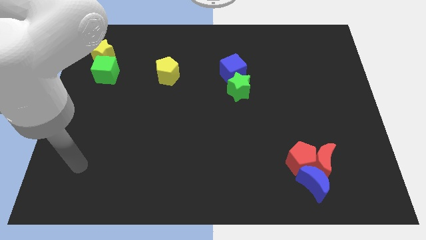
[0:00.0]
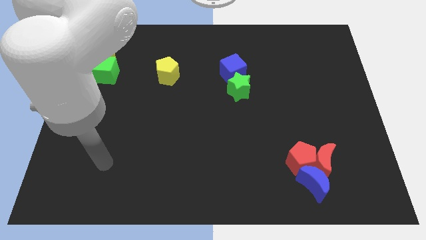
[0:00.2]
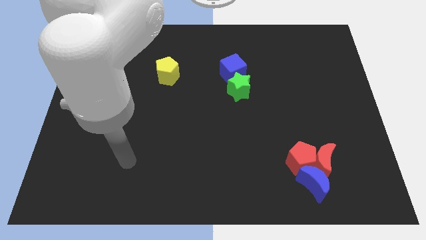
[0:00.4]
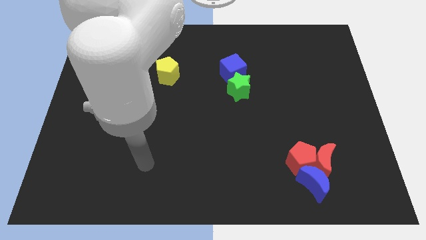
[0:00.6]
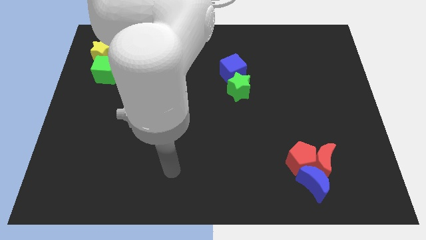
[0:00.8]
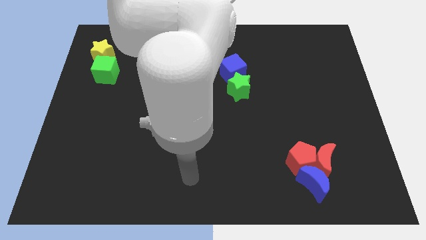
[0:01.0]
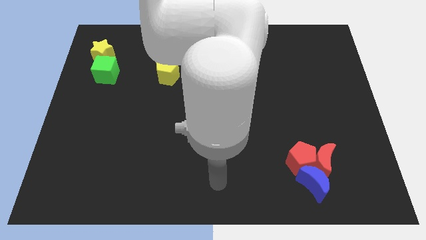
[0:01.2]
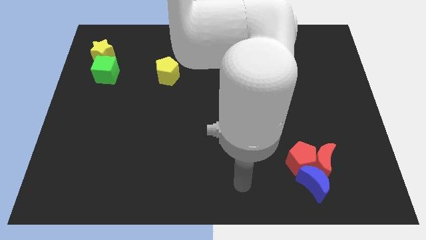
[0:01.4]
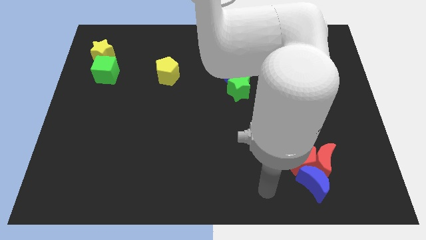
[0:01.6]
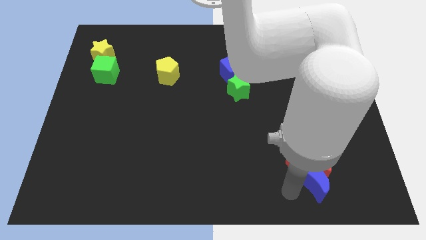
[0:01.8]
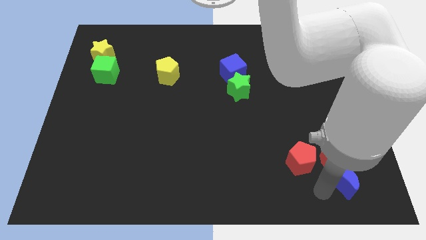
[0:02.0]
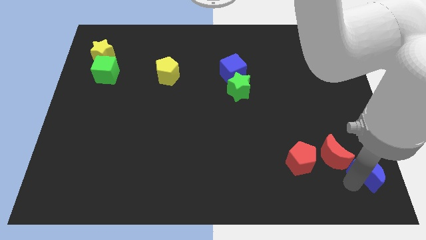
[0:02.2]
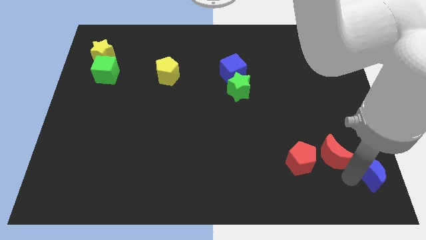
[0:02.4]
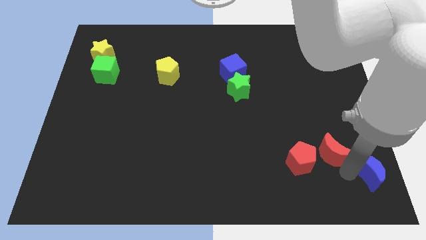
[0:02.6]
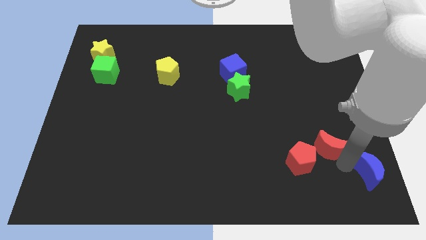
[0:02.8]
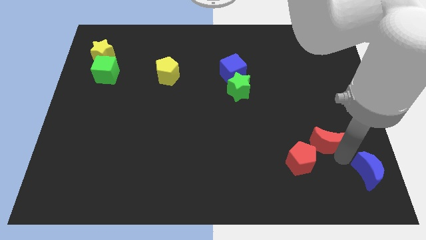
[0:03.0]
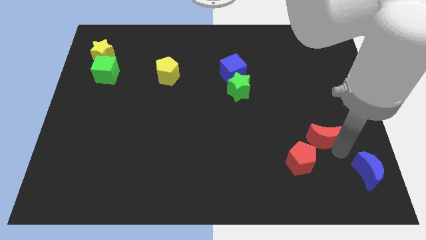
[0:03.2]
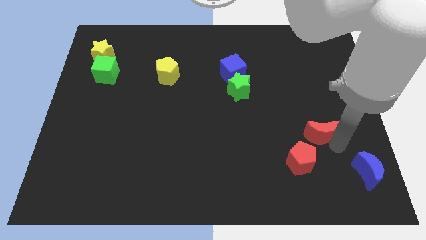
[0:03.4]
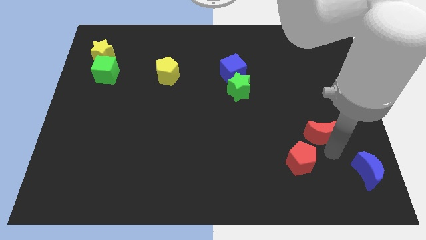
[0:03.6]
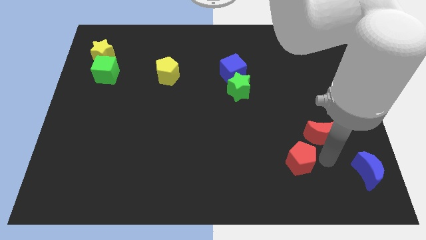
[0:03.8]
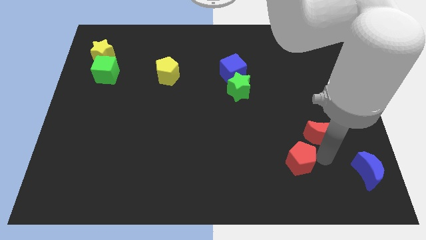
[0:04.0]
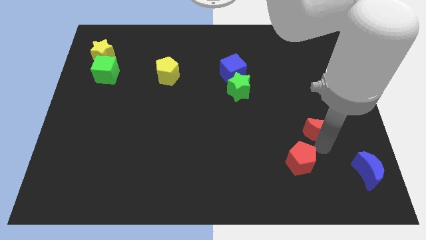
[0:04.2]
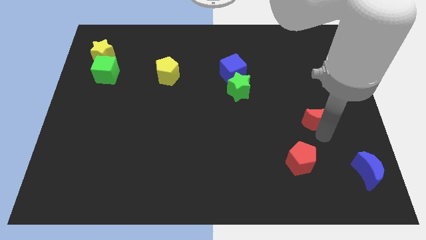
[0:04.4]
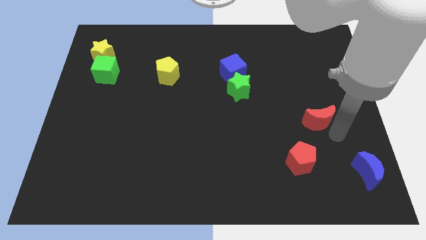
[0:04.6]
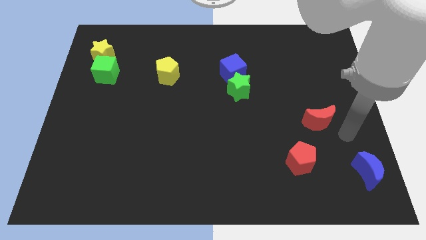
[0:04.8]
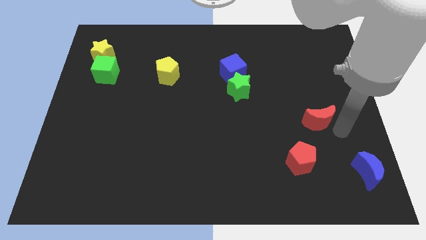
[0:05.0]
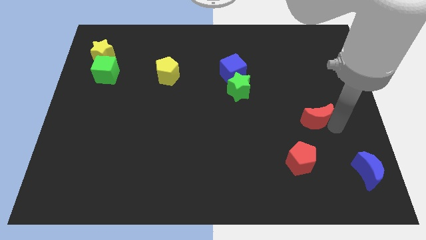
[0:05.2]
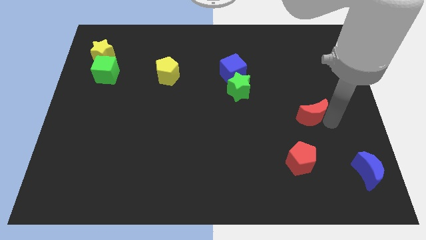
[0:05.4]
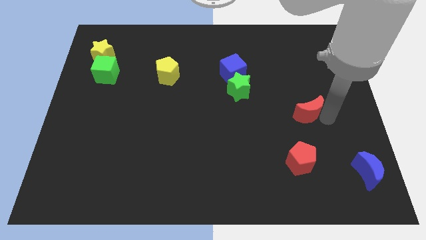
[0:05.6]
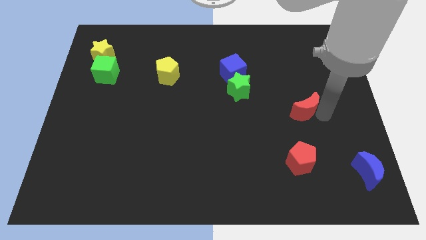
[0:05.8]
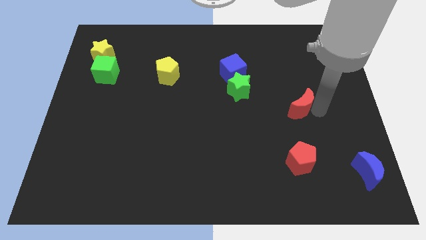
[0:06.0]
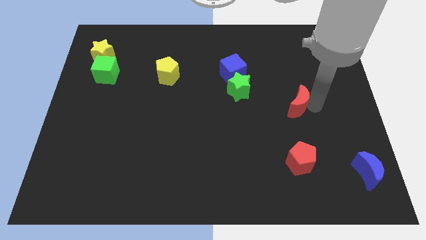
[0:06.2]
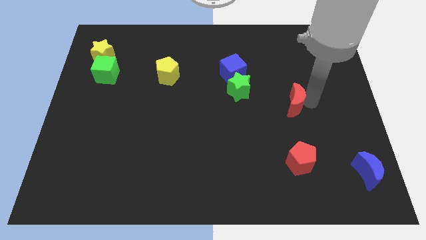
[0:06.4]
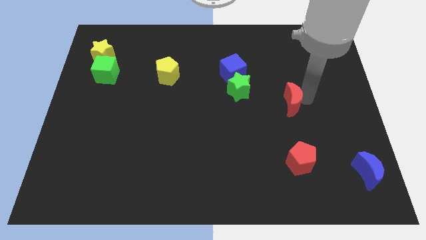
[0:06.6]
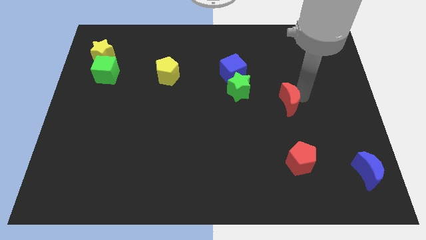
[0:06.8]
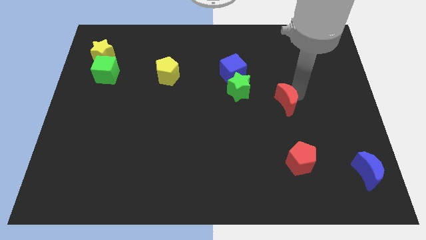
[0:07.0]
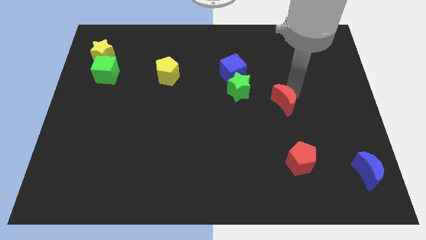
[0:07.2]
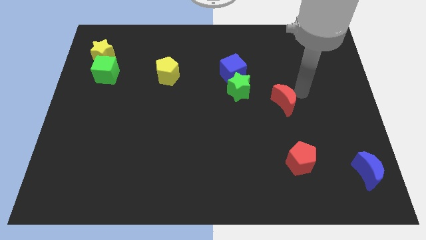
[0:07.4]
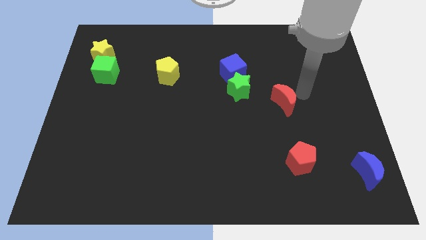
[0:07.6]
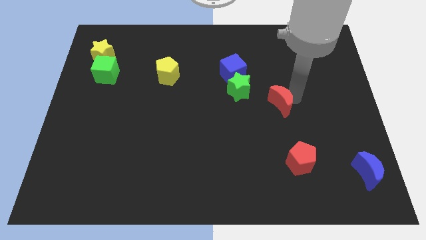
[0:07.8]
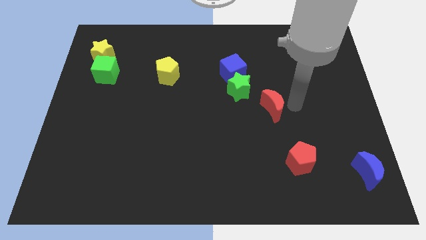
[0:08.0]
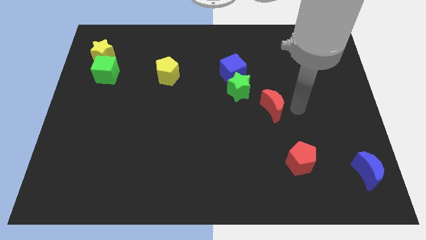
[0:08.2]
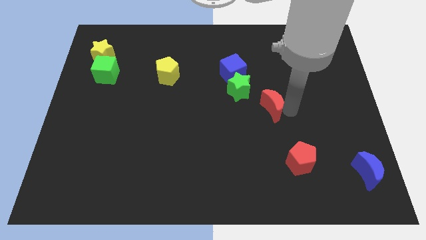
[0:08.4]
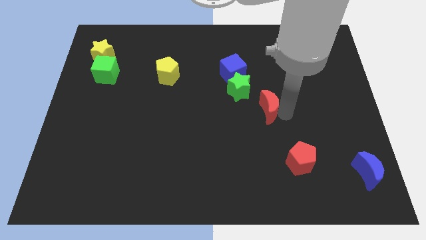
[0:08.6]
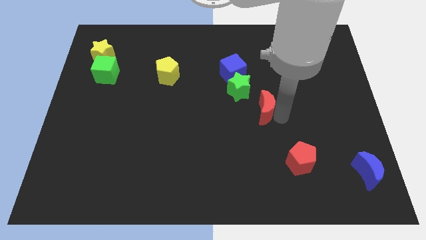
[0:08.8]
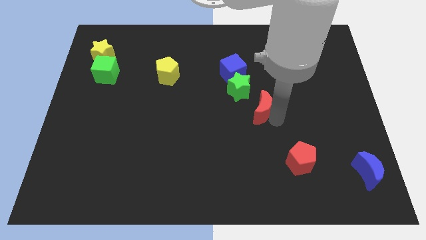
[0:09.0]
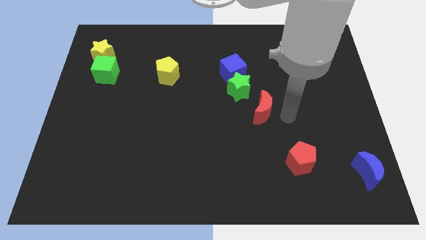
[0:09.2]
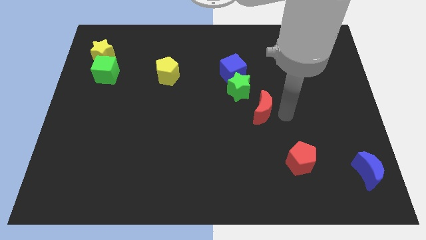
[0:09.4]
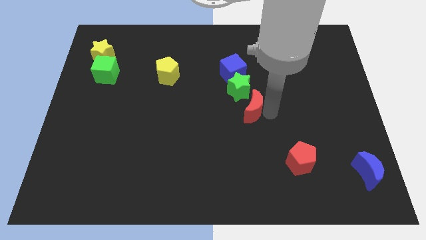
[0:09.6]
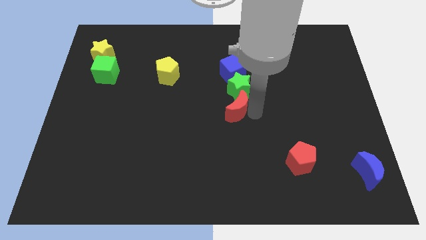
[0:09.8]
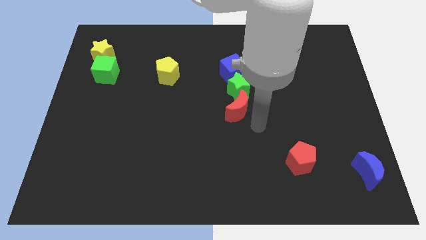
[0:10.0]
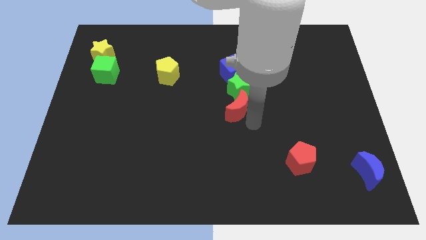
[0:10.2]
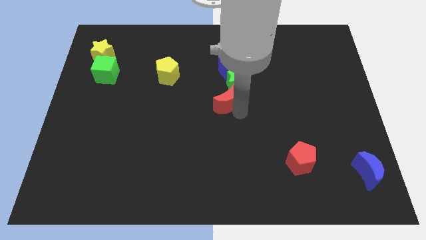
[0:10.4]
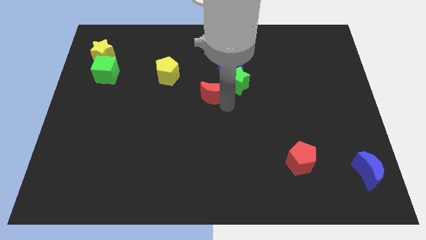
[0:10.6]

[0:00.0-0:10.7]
move the red moon diagonally down and to the left of the blue cube

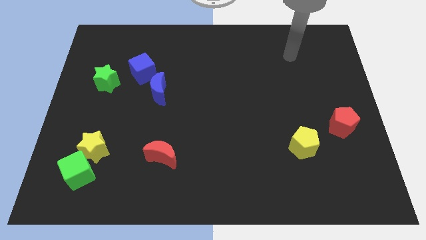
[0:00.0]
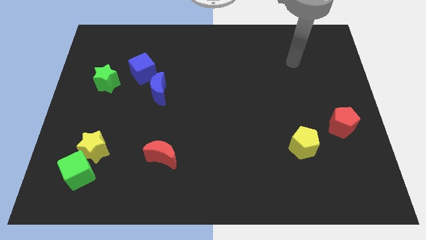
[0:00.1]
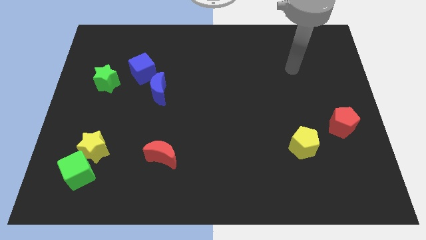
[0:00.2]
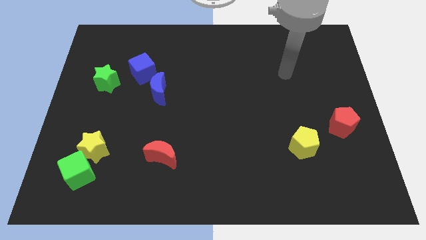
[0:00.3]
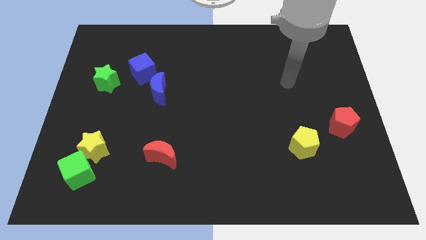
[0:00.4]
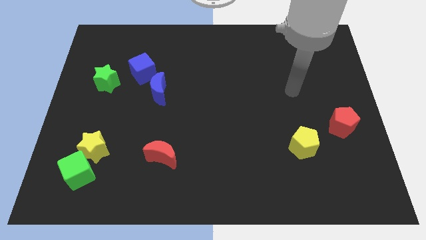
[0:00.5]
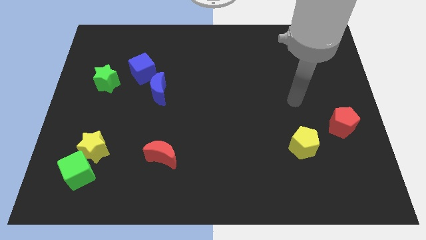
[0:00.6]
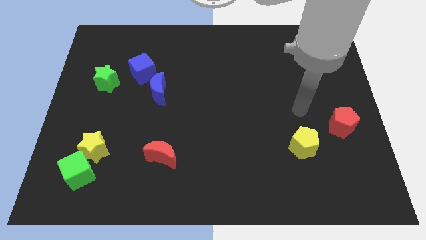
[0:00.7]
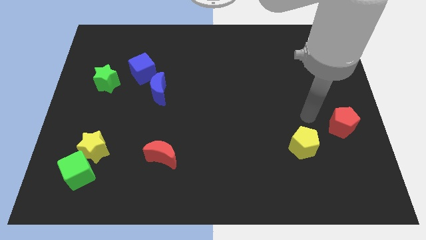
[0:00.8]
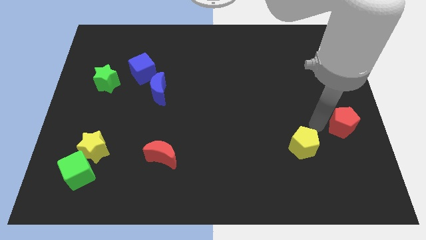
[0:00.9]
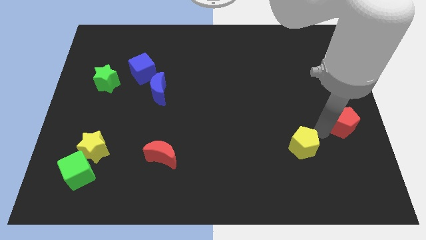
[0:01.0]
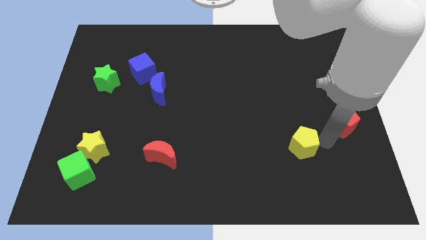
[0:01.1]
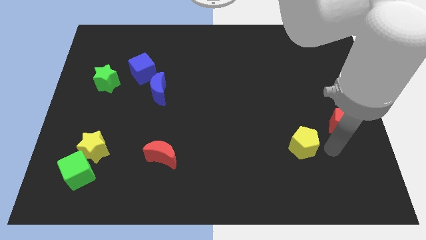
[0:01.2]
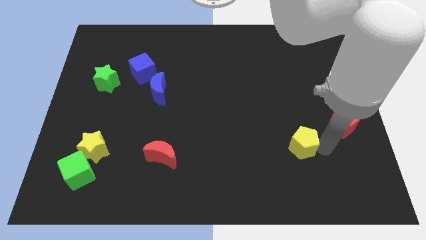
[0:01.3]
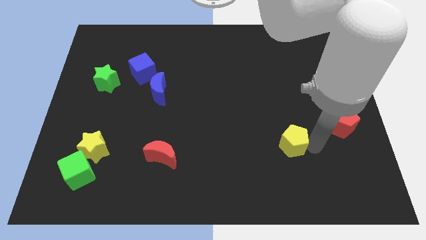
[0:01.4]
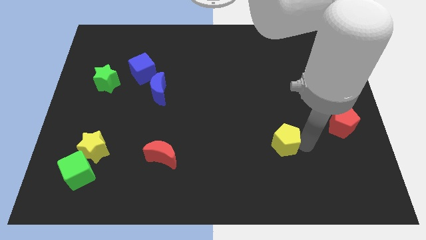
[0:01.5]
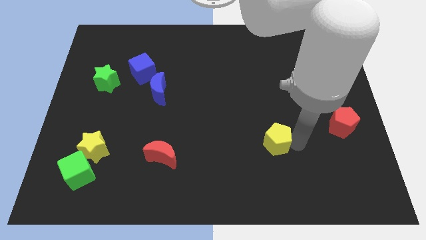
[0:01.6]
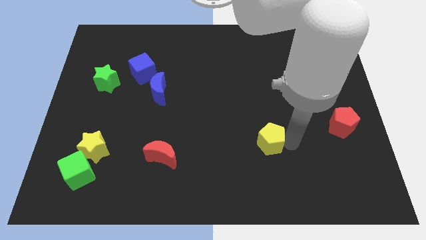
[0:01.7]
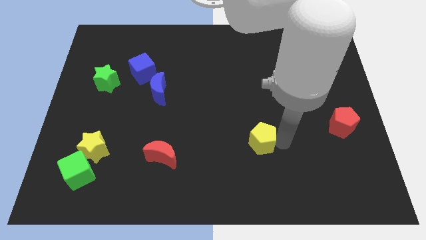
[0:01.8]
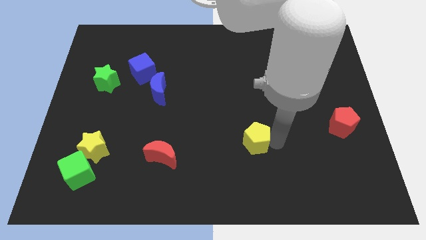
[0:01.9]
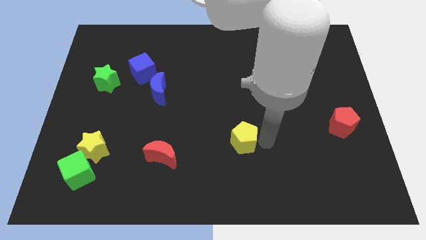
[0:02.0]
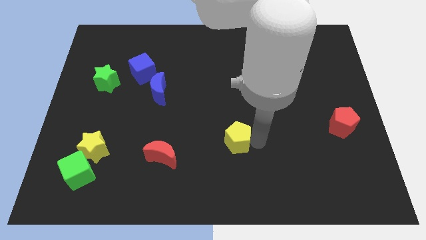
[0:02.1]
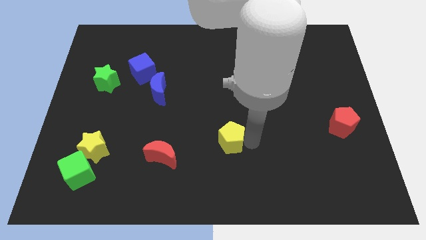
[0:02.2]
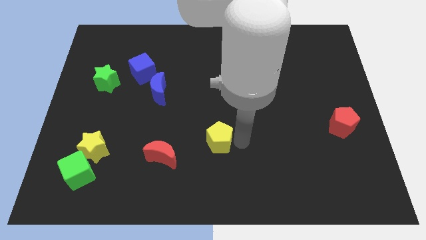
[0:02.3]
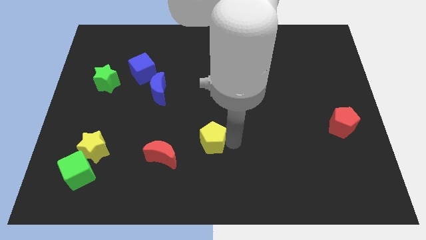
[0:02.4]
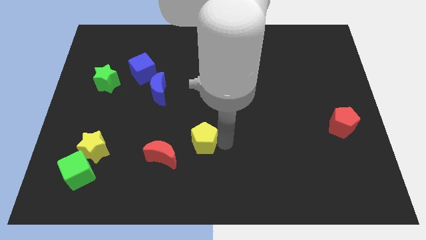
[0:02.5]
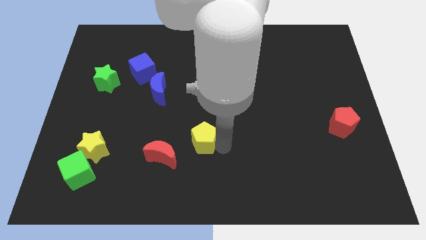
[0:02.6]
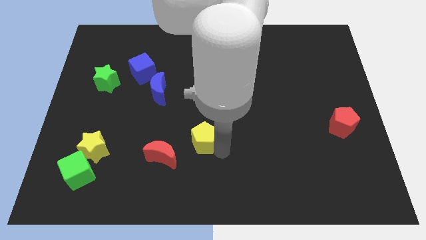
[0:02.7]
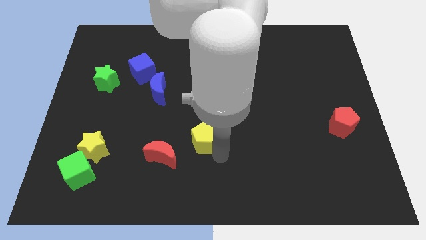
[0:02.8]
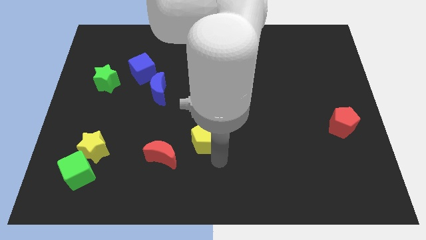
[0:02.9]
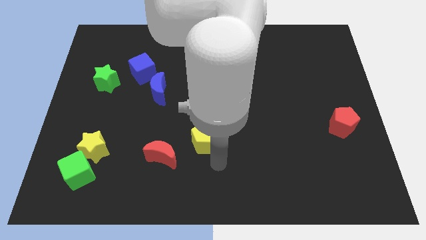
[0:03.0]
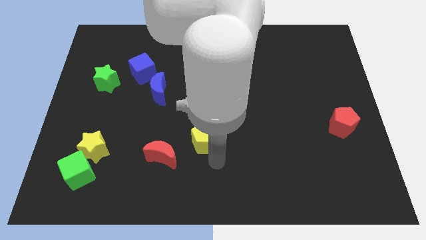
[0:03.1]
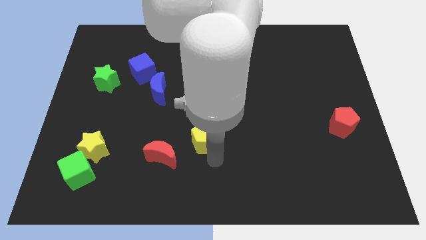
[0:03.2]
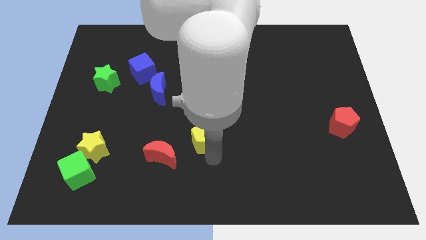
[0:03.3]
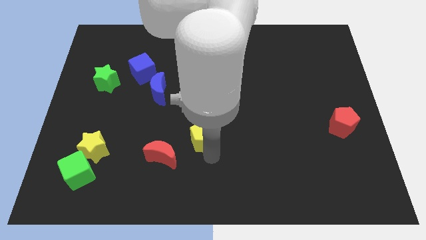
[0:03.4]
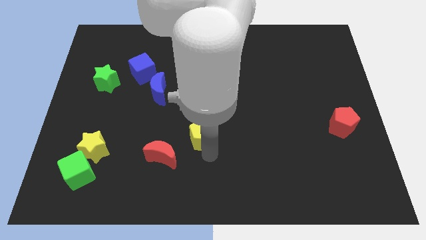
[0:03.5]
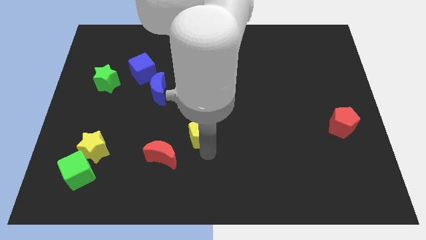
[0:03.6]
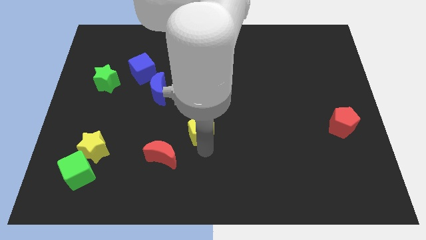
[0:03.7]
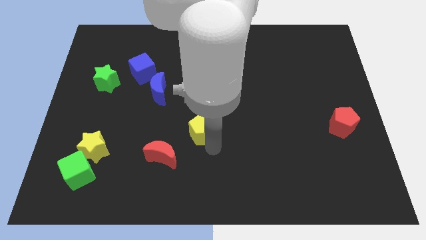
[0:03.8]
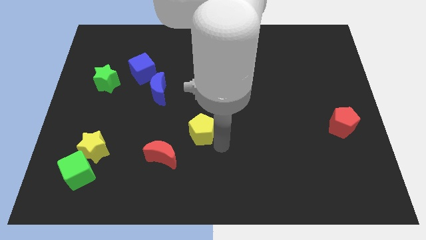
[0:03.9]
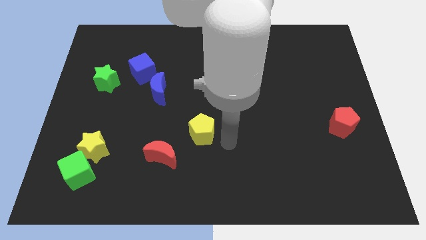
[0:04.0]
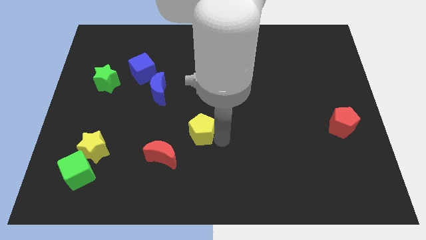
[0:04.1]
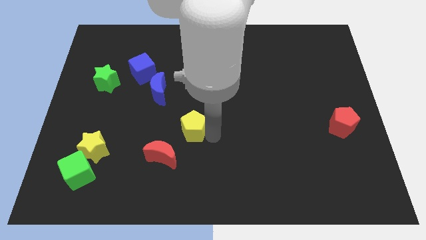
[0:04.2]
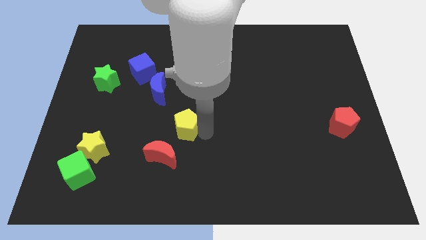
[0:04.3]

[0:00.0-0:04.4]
move the yellow pentagon above the red moon
